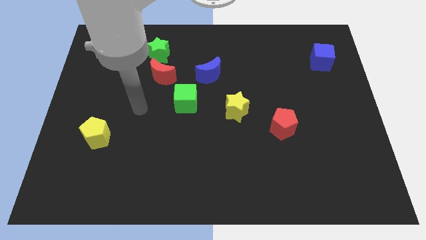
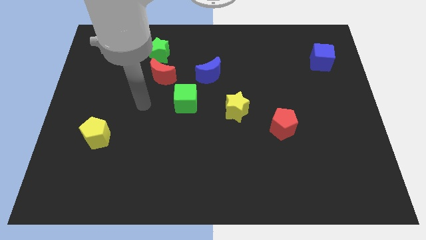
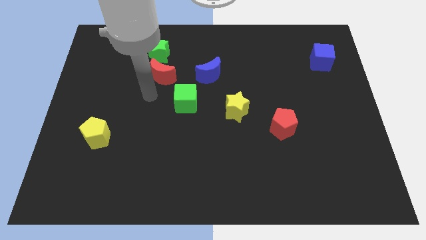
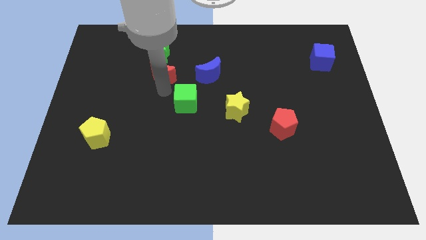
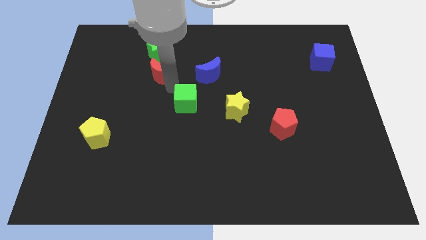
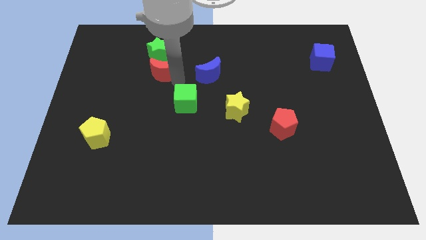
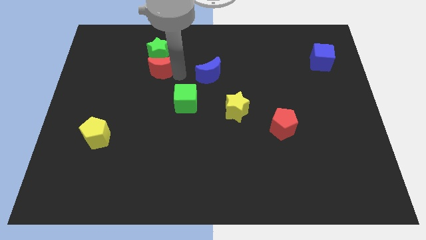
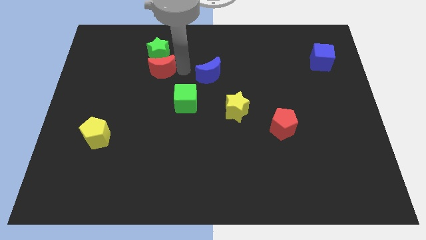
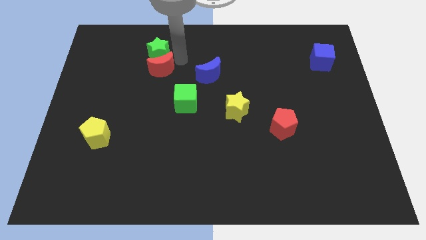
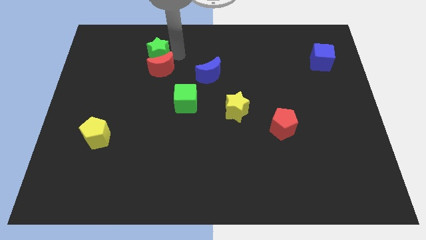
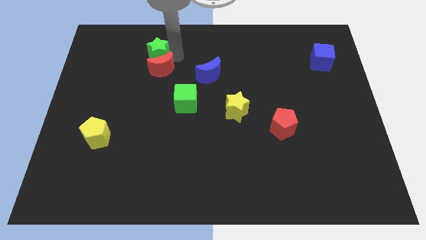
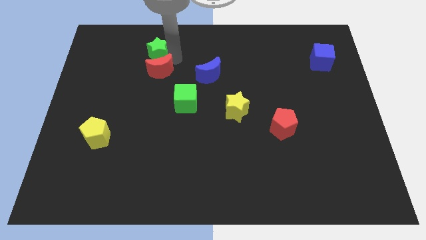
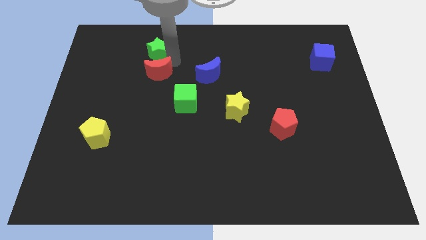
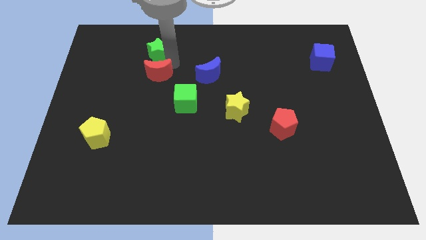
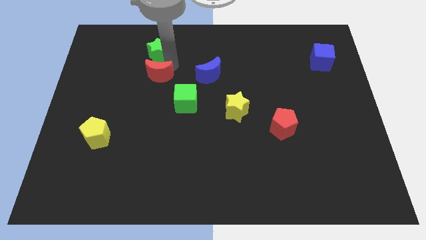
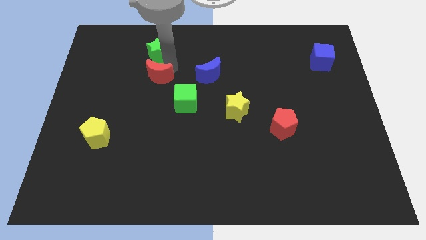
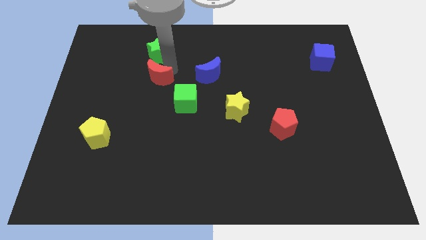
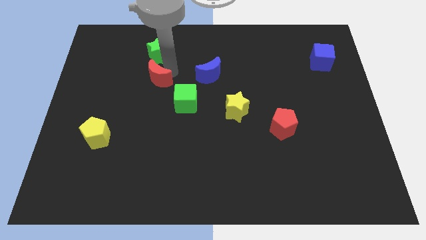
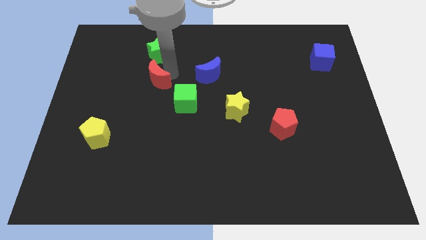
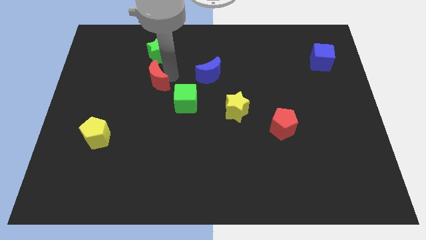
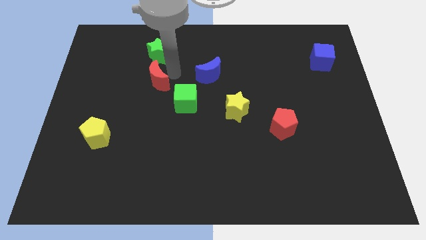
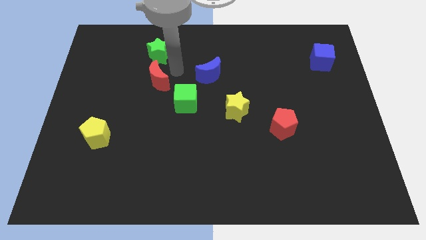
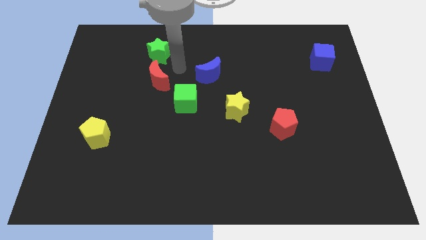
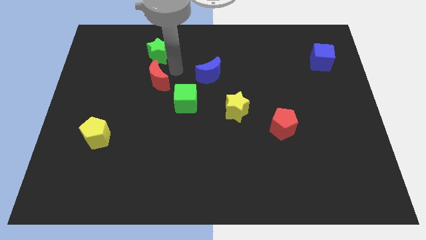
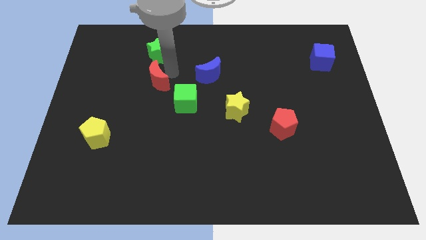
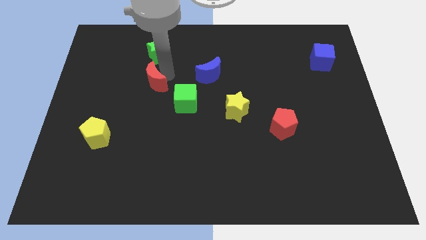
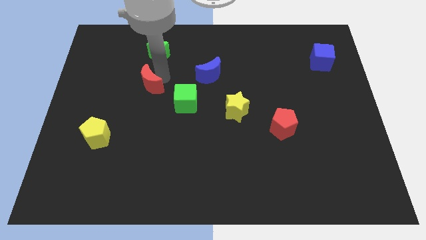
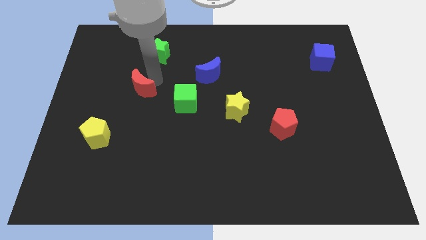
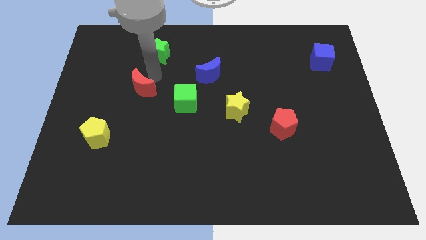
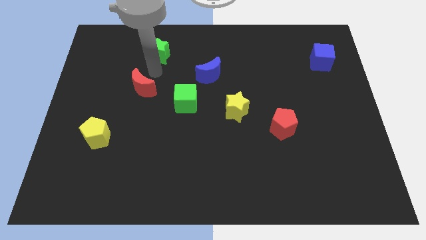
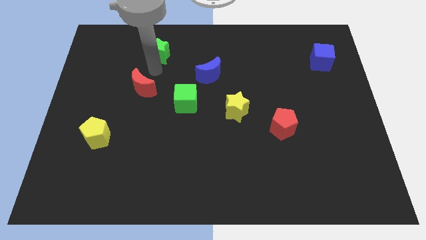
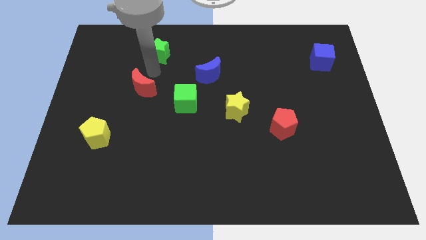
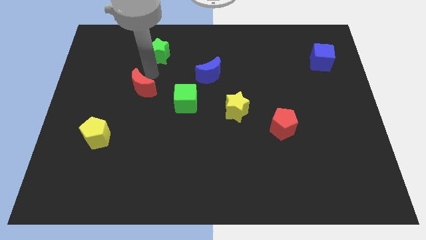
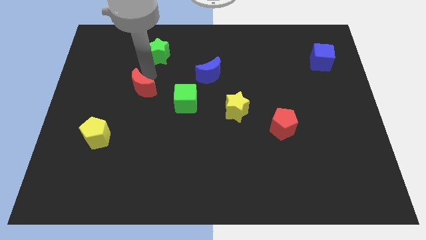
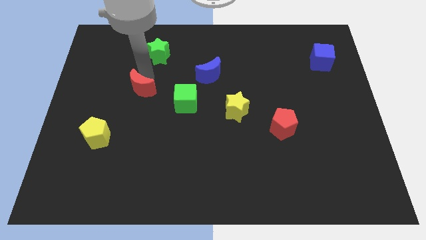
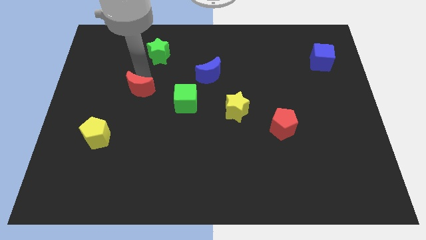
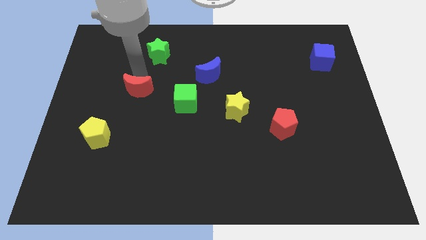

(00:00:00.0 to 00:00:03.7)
push the red moon somewhat down and left diagonally

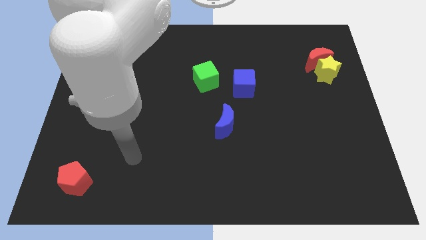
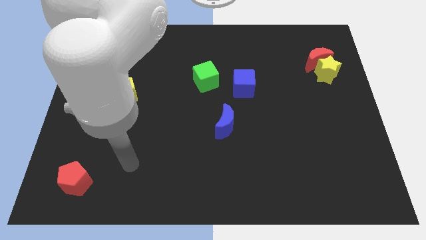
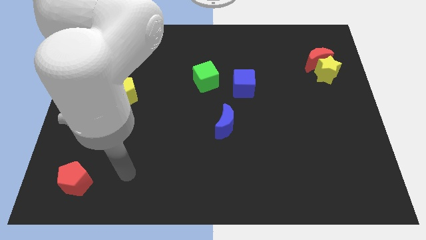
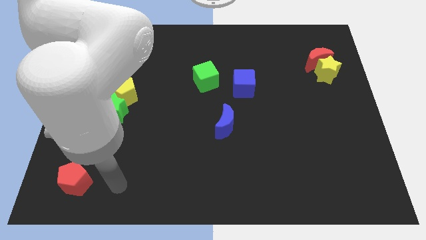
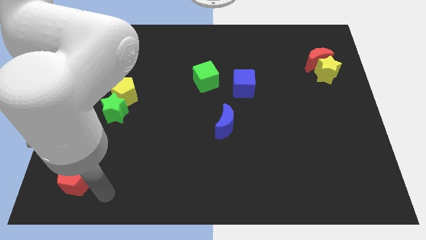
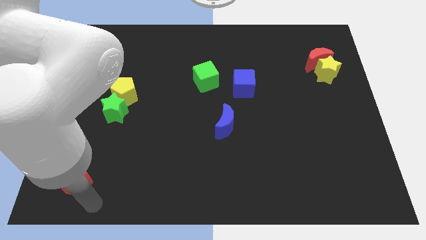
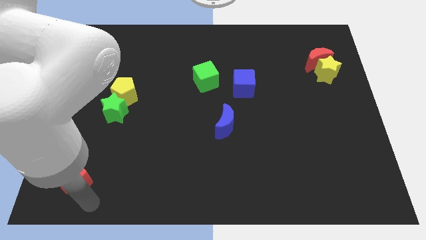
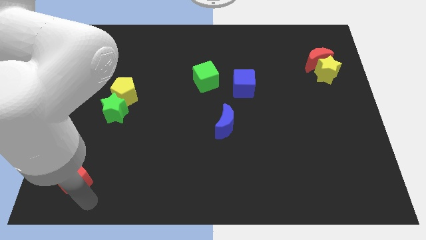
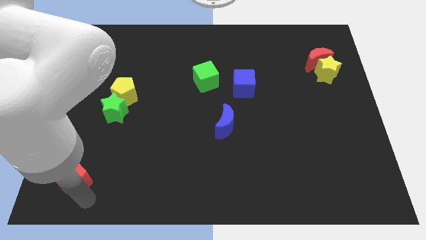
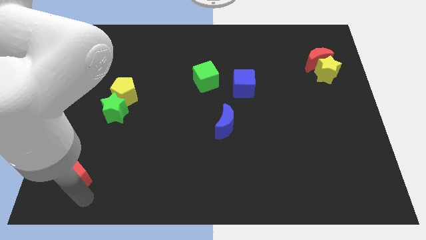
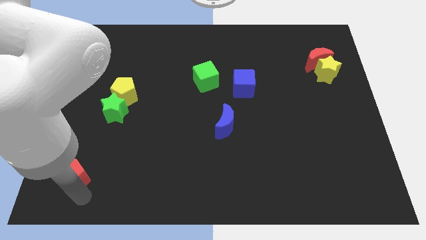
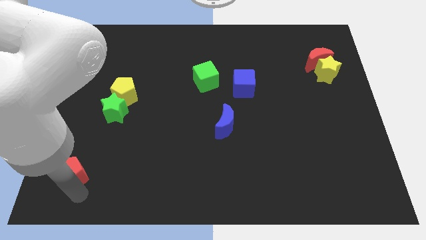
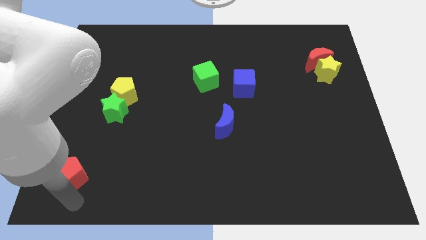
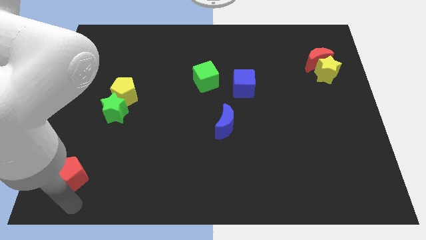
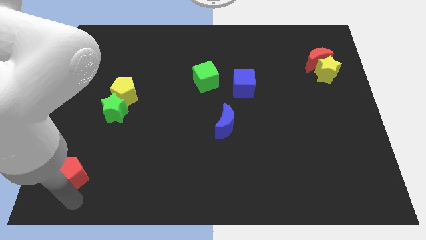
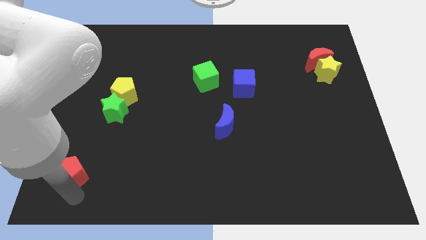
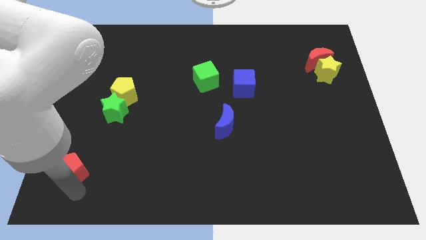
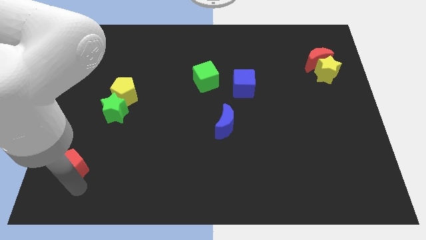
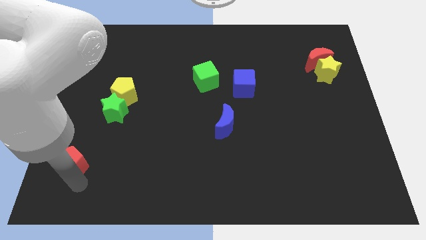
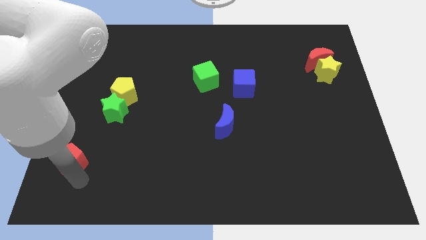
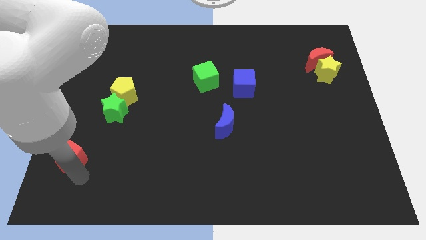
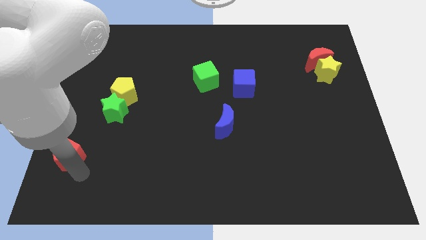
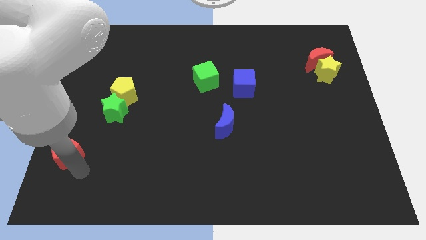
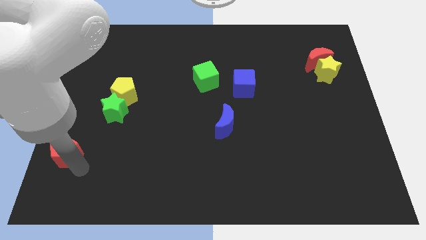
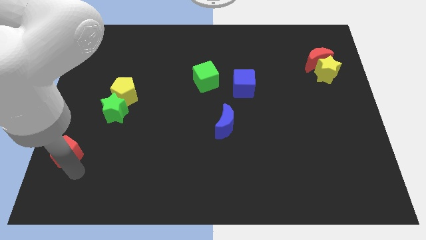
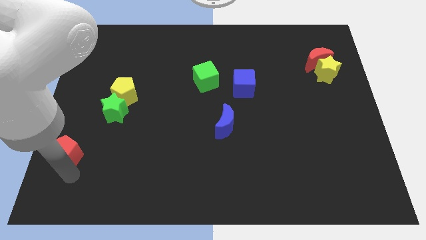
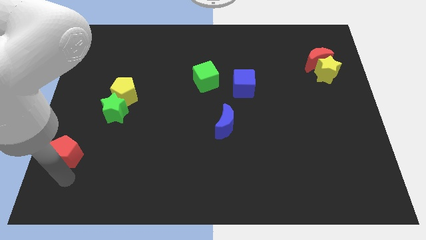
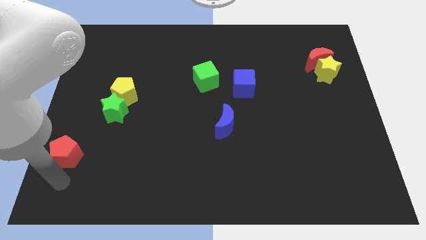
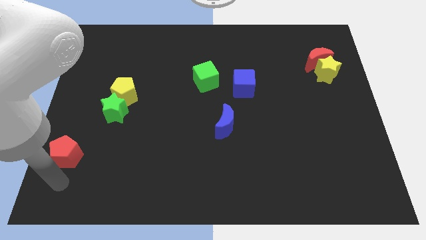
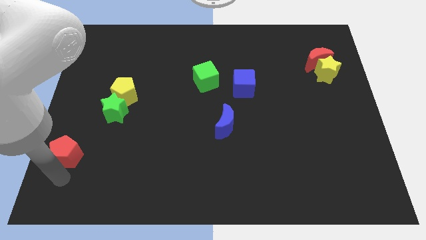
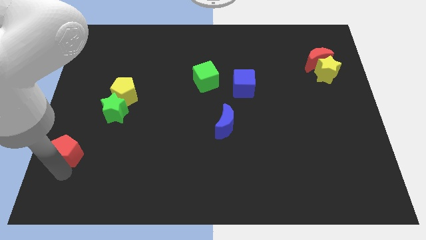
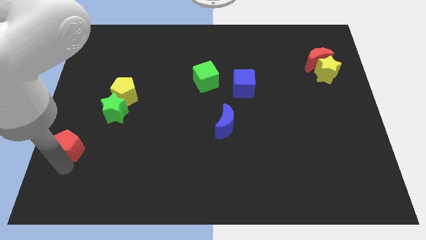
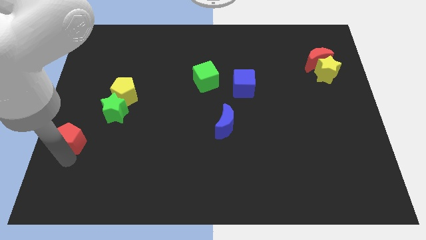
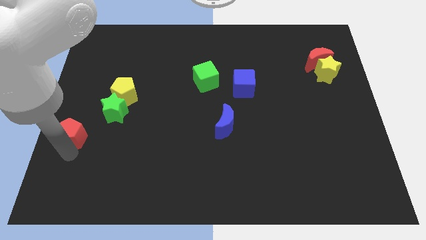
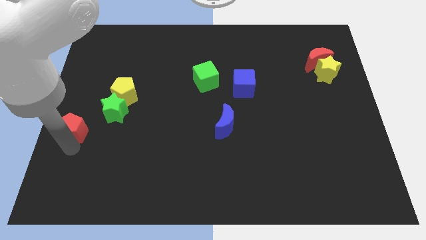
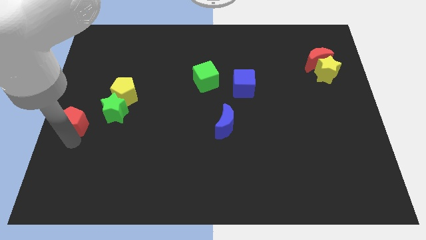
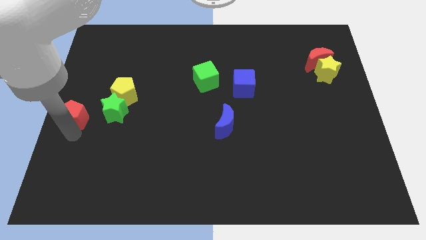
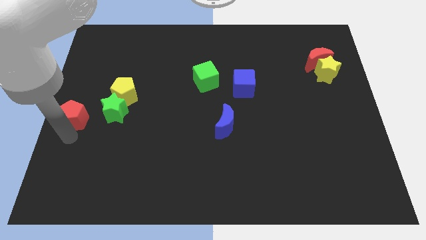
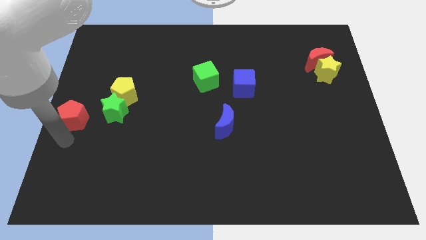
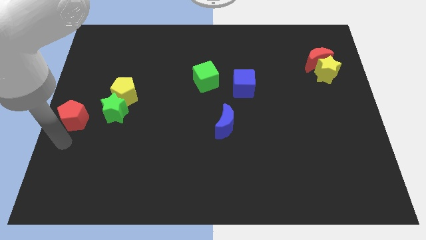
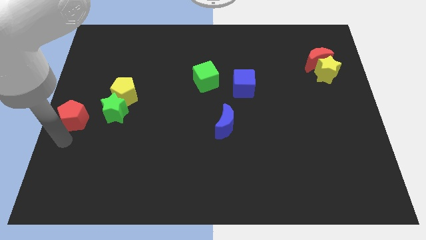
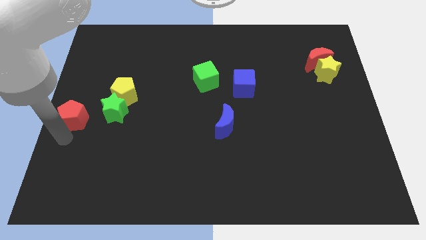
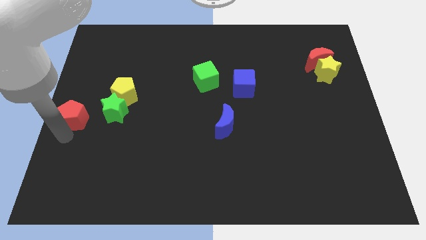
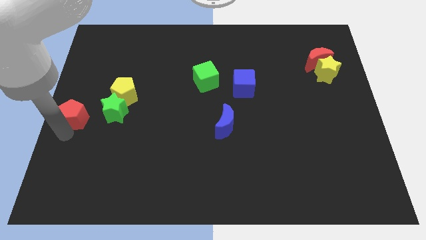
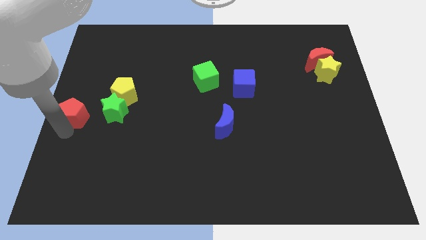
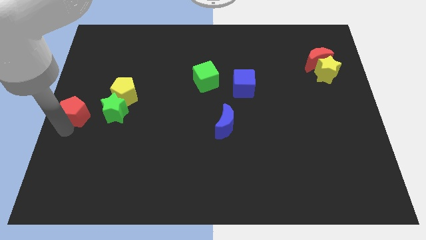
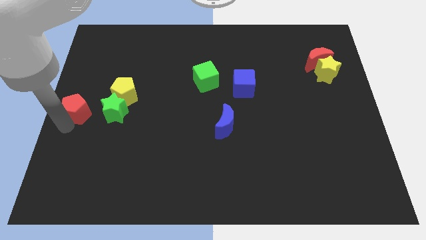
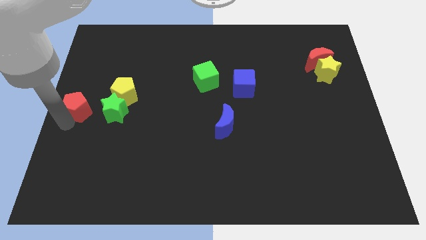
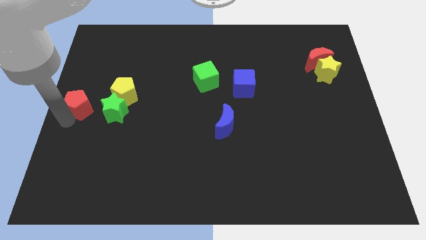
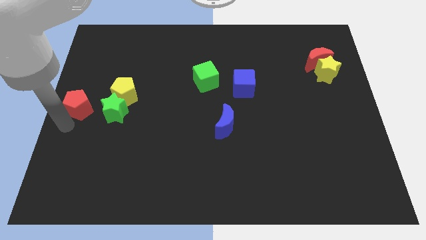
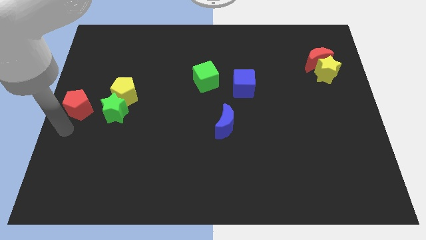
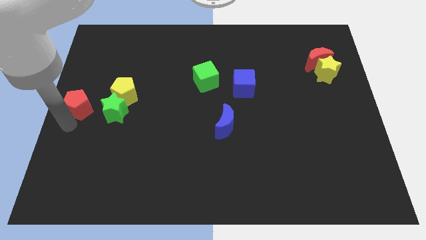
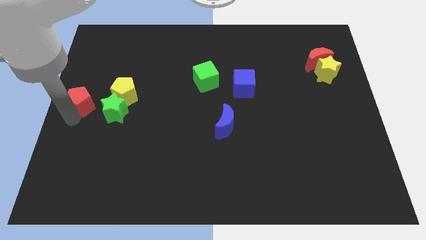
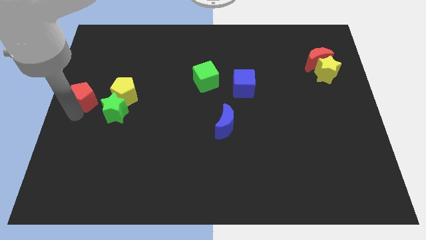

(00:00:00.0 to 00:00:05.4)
move the red pentagon up
